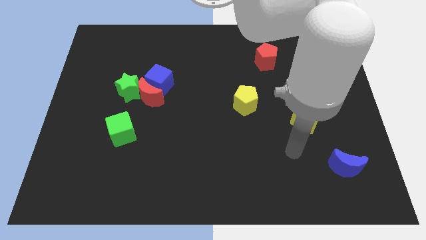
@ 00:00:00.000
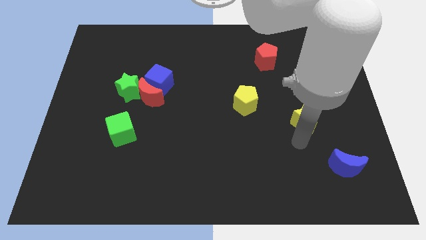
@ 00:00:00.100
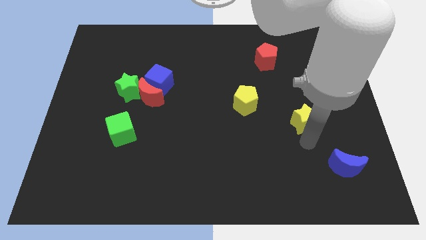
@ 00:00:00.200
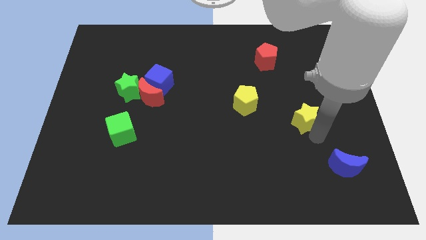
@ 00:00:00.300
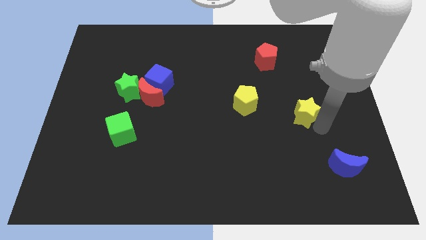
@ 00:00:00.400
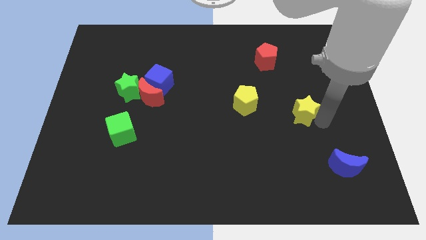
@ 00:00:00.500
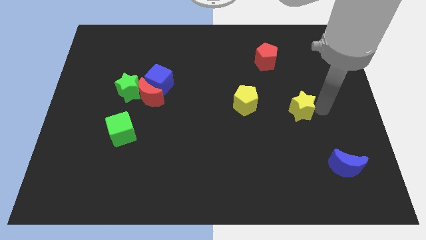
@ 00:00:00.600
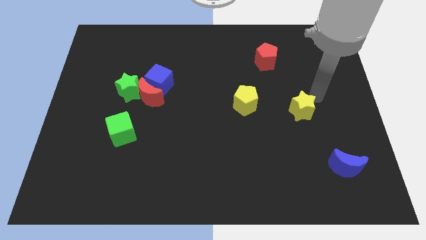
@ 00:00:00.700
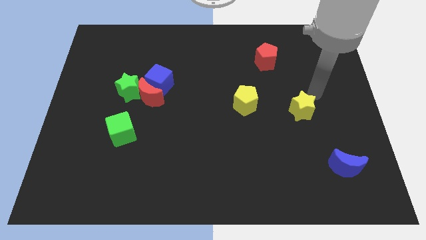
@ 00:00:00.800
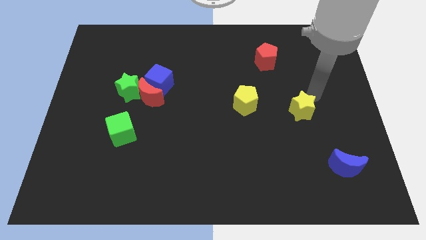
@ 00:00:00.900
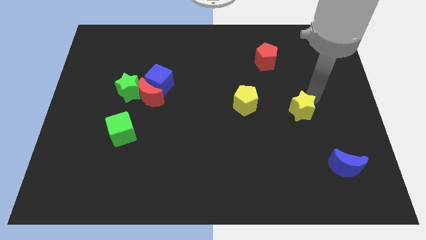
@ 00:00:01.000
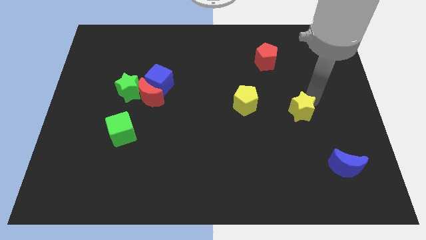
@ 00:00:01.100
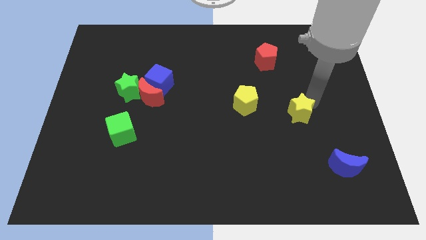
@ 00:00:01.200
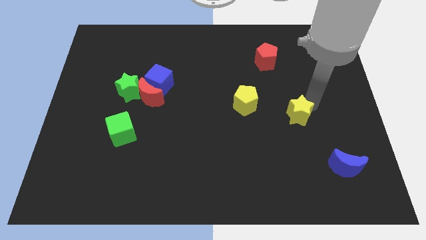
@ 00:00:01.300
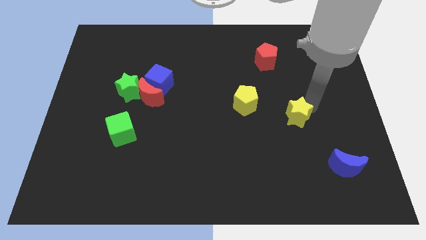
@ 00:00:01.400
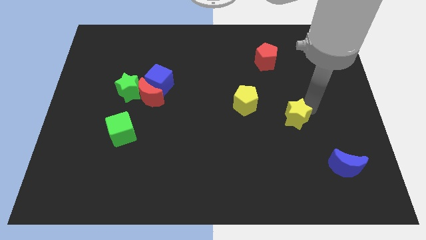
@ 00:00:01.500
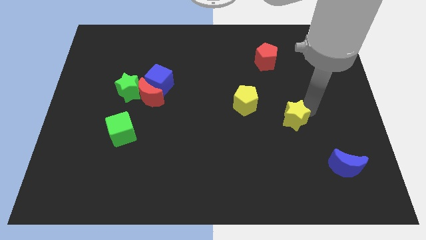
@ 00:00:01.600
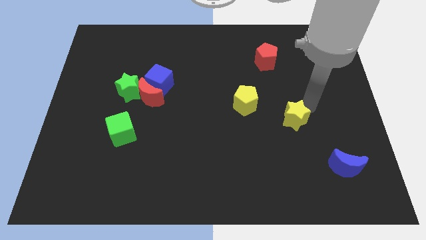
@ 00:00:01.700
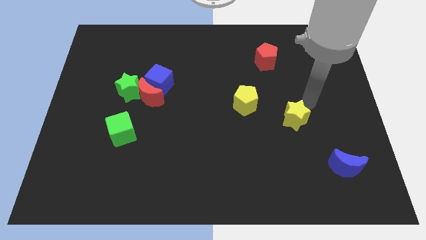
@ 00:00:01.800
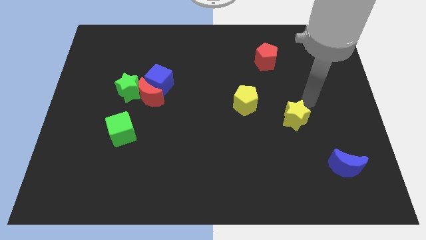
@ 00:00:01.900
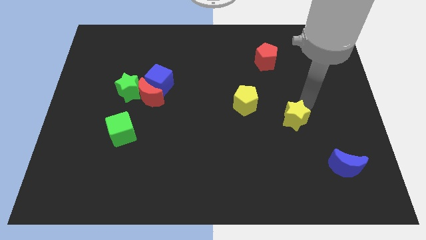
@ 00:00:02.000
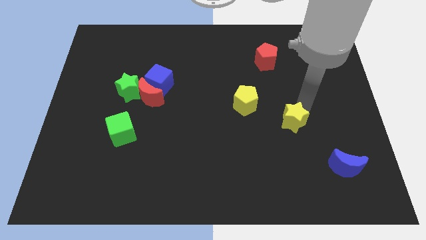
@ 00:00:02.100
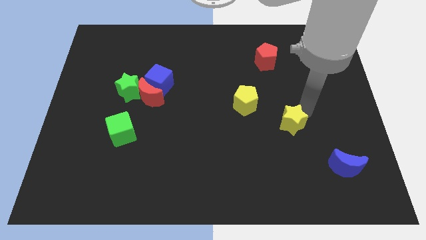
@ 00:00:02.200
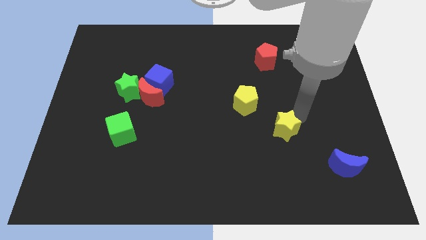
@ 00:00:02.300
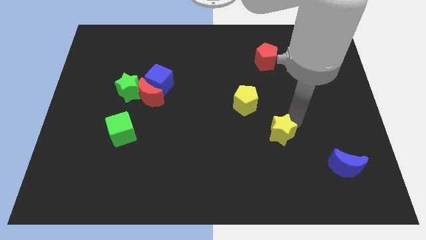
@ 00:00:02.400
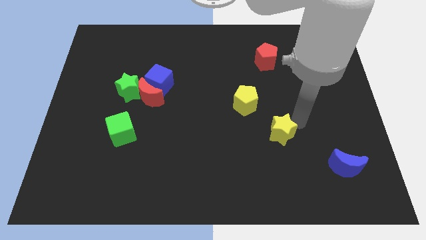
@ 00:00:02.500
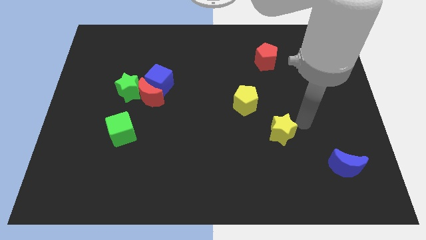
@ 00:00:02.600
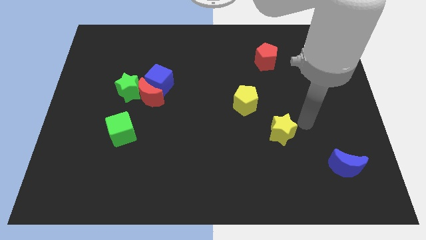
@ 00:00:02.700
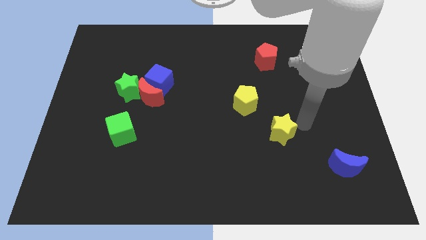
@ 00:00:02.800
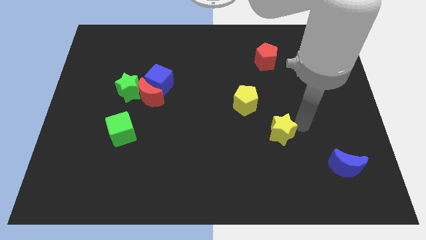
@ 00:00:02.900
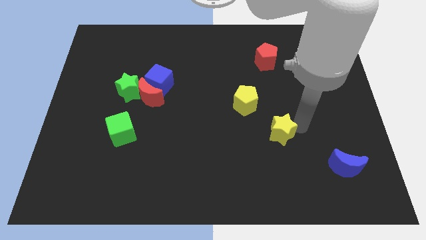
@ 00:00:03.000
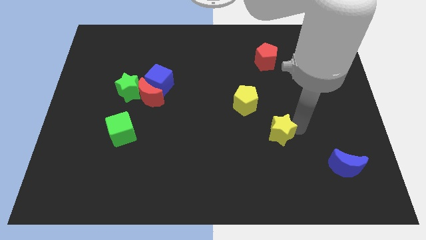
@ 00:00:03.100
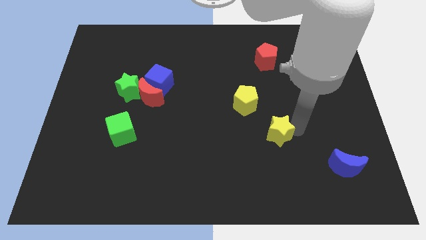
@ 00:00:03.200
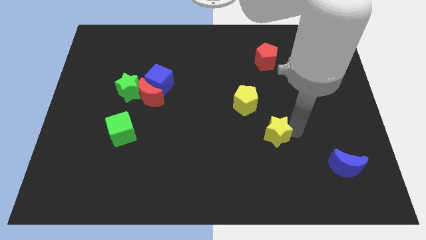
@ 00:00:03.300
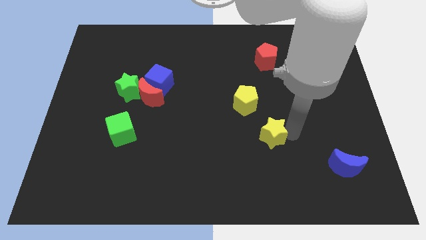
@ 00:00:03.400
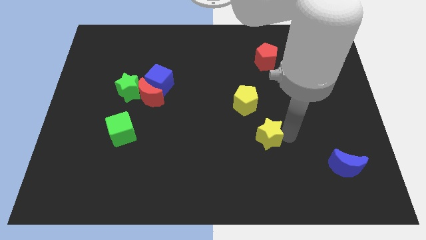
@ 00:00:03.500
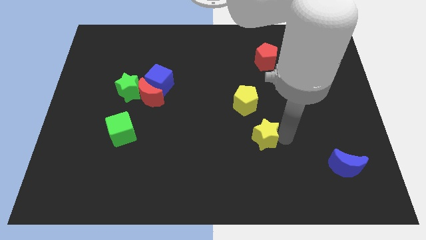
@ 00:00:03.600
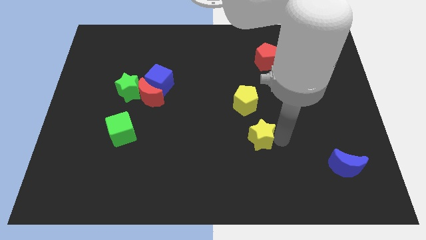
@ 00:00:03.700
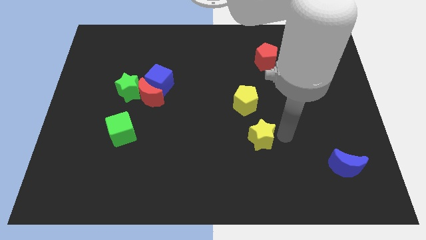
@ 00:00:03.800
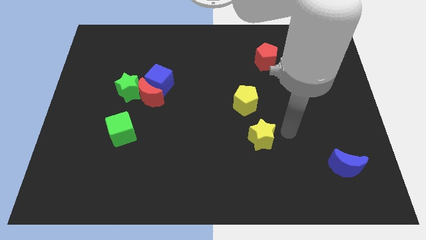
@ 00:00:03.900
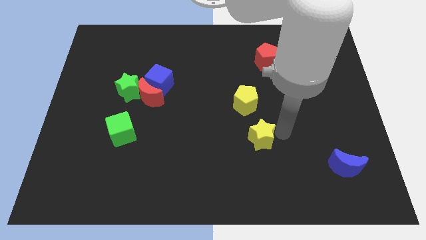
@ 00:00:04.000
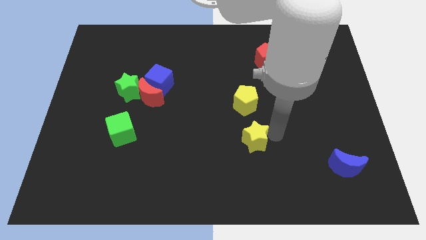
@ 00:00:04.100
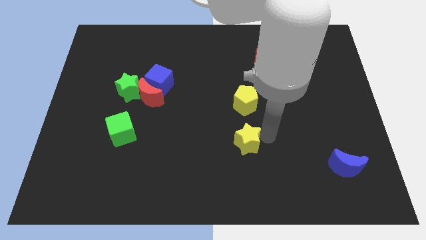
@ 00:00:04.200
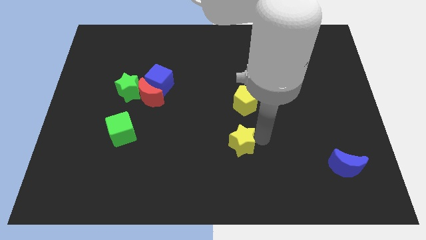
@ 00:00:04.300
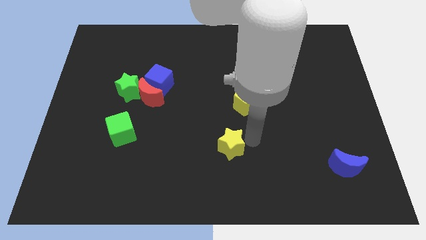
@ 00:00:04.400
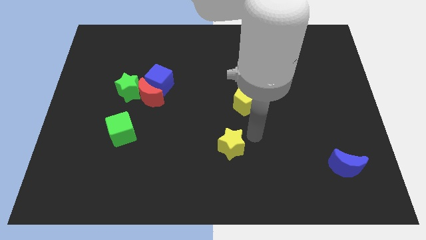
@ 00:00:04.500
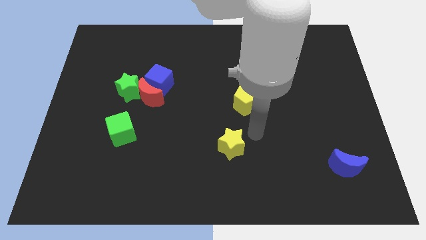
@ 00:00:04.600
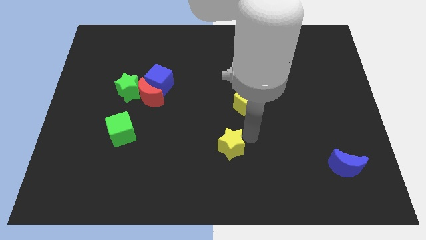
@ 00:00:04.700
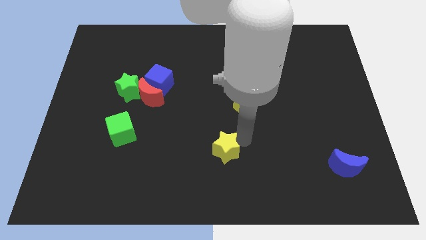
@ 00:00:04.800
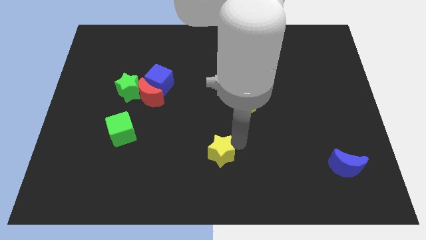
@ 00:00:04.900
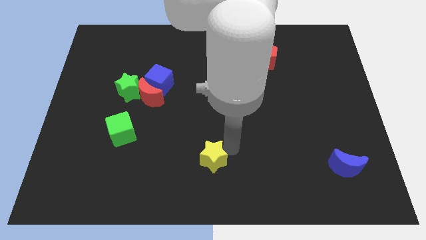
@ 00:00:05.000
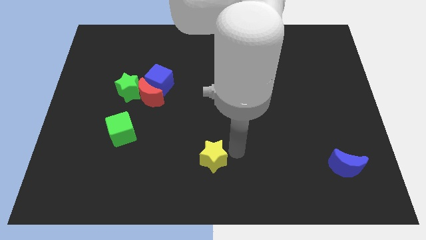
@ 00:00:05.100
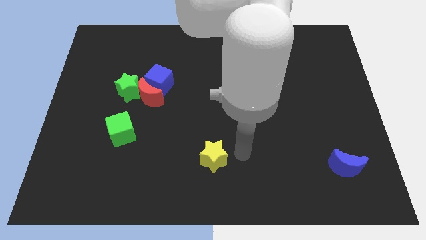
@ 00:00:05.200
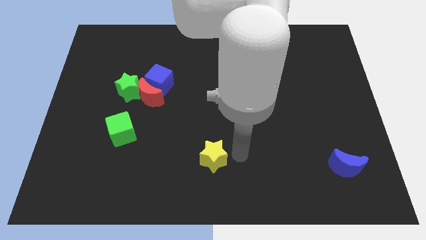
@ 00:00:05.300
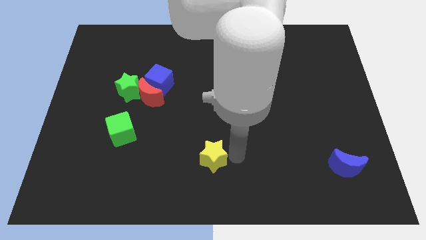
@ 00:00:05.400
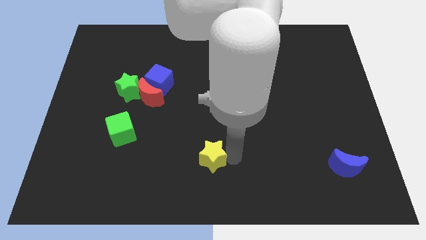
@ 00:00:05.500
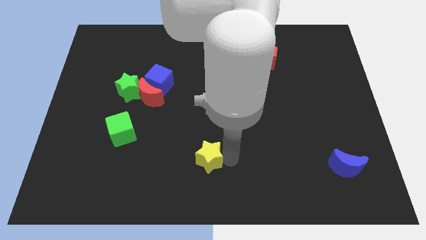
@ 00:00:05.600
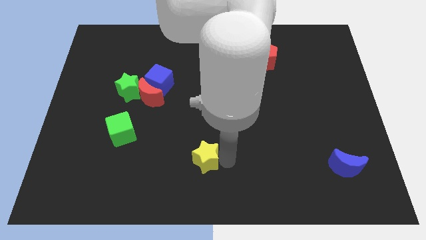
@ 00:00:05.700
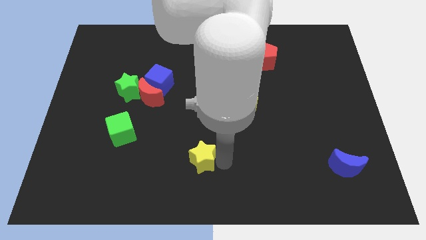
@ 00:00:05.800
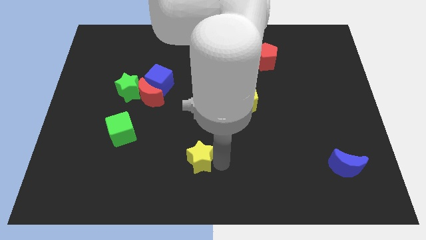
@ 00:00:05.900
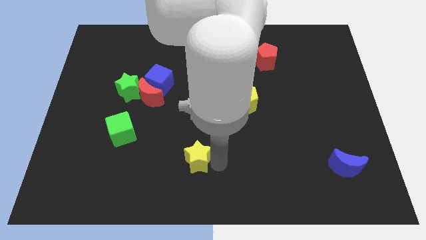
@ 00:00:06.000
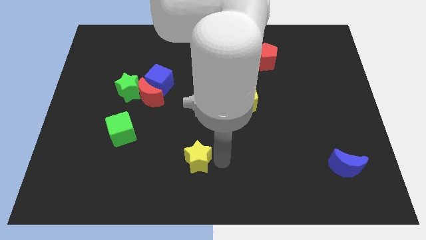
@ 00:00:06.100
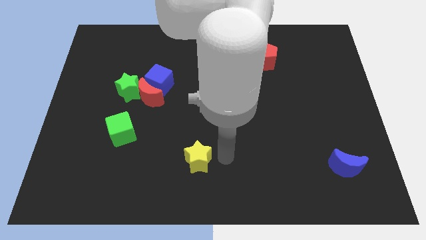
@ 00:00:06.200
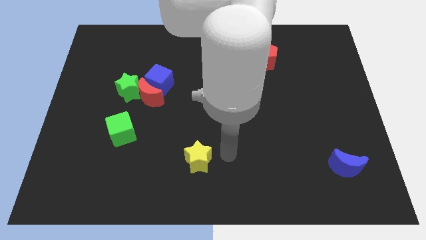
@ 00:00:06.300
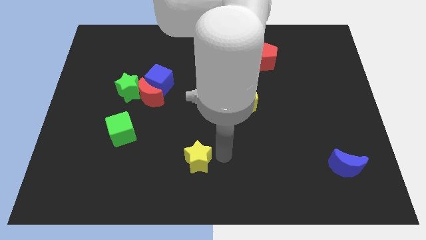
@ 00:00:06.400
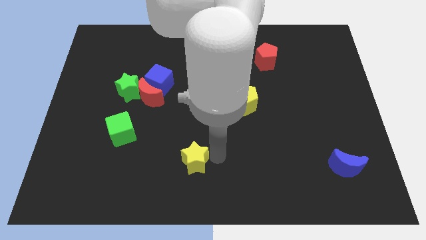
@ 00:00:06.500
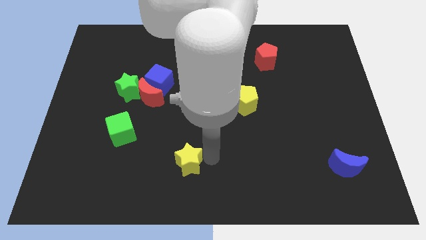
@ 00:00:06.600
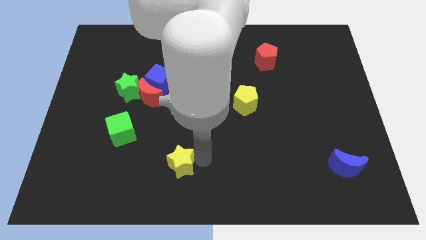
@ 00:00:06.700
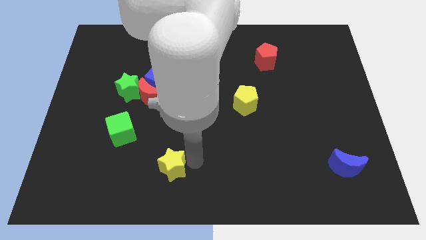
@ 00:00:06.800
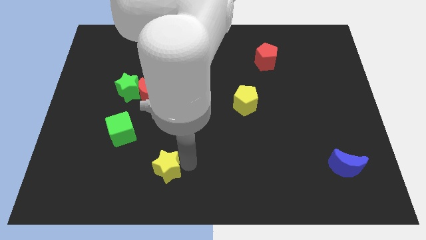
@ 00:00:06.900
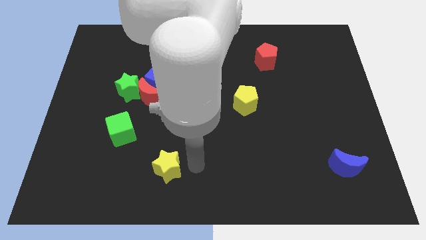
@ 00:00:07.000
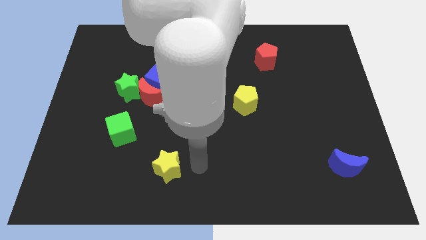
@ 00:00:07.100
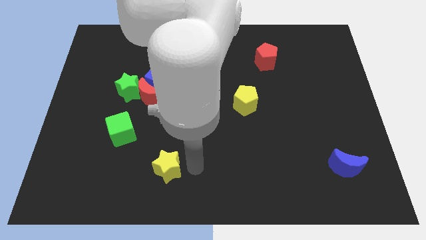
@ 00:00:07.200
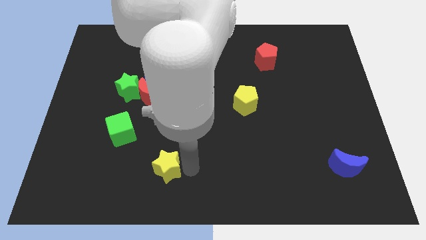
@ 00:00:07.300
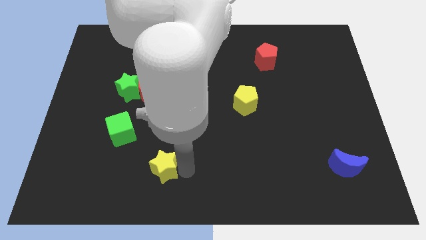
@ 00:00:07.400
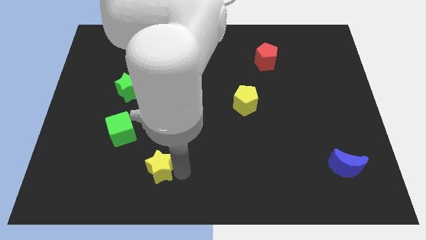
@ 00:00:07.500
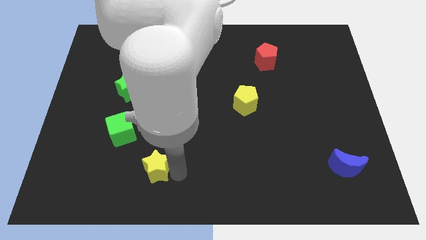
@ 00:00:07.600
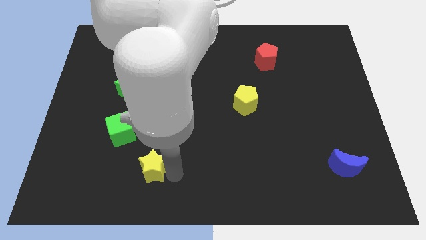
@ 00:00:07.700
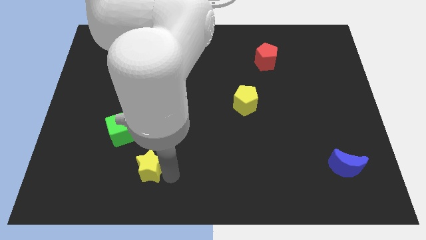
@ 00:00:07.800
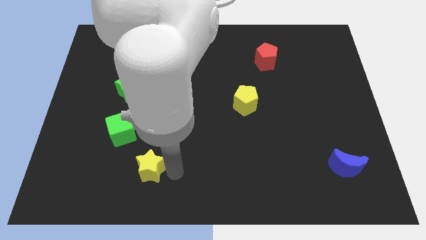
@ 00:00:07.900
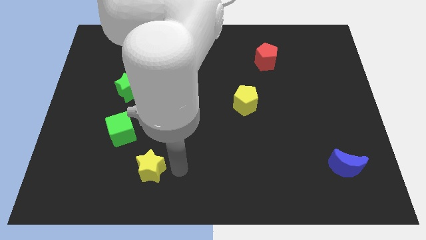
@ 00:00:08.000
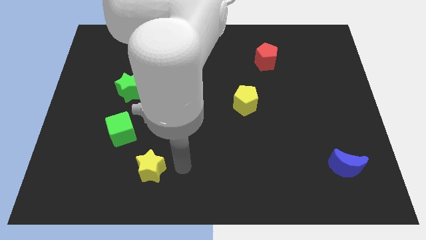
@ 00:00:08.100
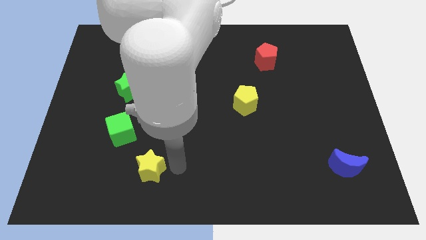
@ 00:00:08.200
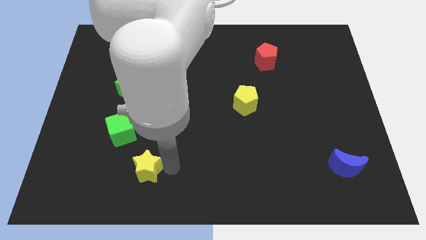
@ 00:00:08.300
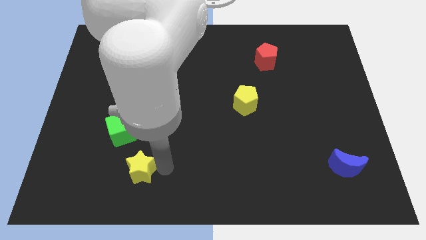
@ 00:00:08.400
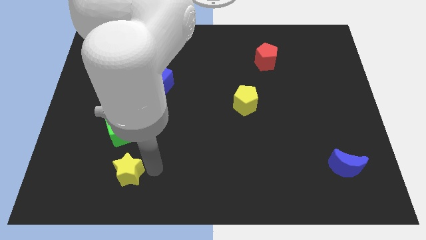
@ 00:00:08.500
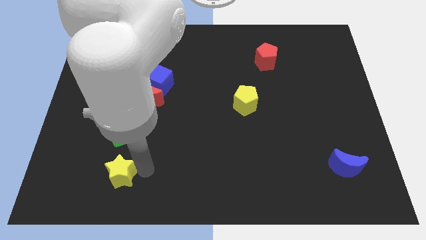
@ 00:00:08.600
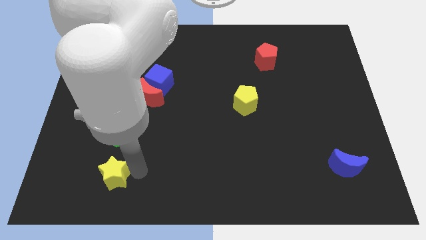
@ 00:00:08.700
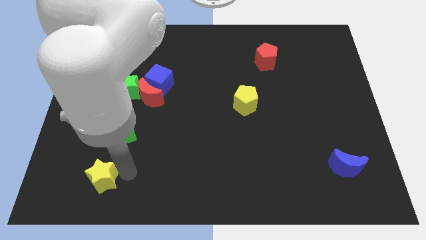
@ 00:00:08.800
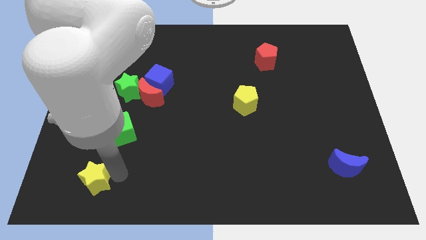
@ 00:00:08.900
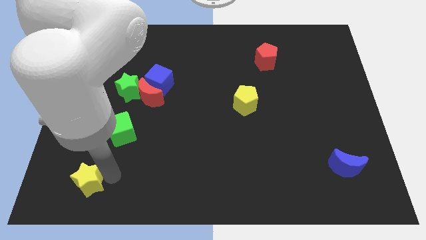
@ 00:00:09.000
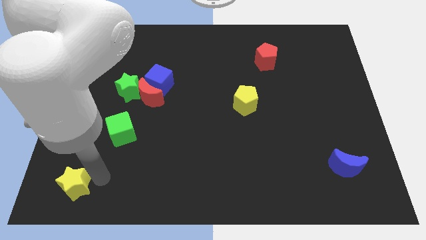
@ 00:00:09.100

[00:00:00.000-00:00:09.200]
put the yellow star to the bottom left of the board
